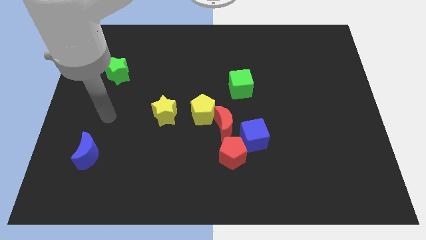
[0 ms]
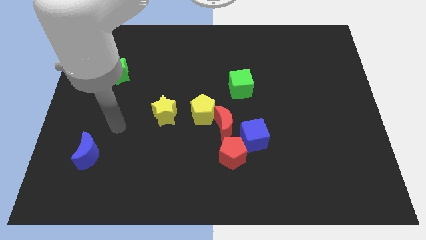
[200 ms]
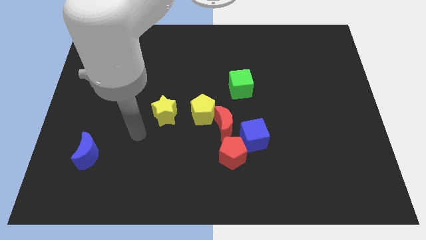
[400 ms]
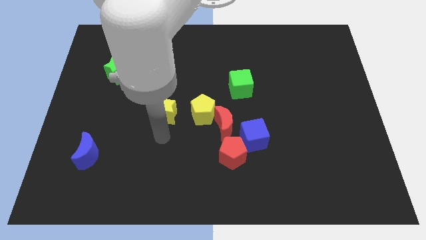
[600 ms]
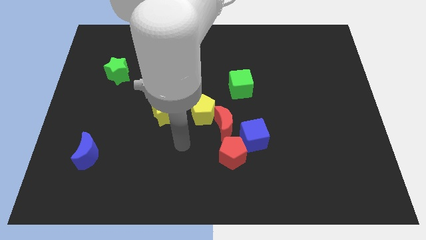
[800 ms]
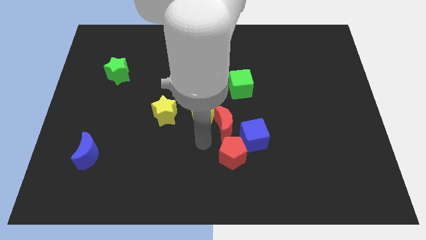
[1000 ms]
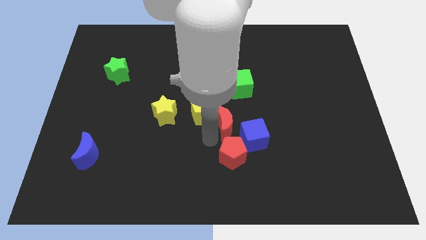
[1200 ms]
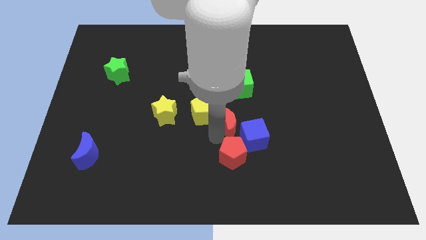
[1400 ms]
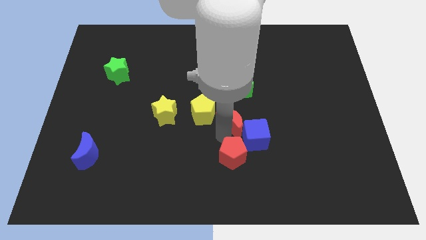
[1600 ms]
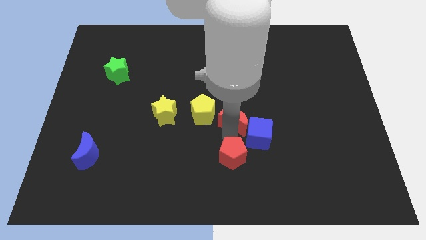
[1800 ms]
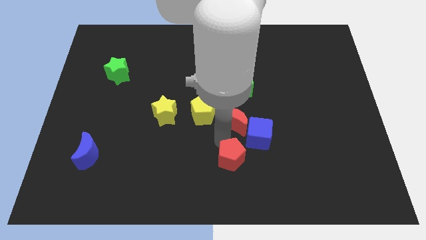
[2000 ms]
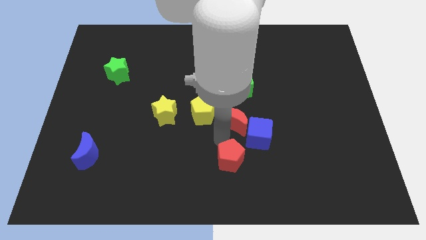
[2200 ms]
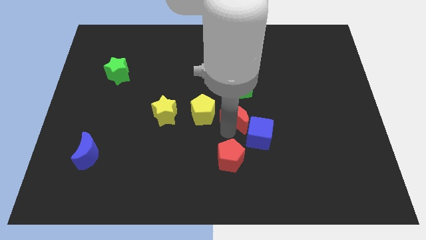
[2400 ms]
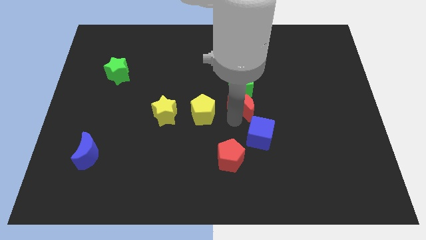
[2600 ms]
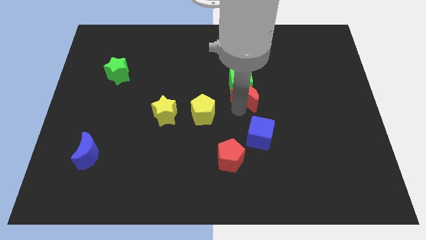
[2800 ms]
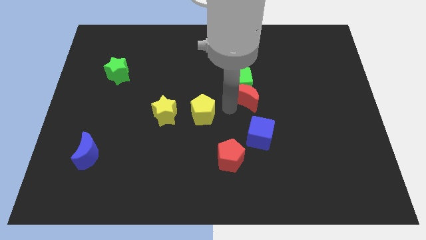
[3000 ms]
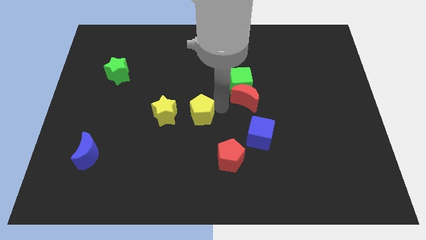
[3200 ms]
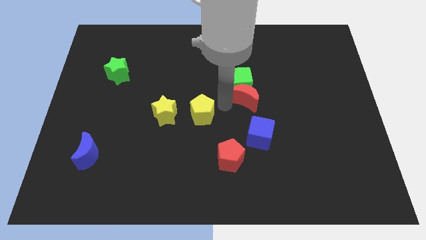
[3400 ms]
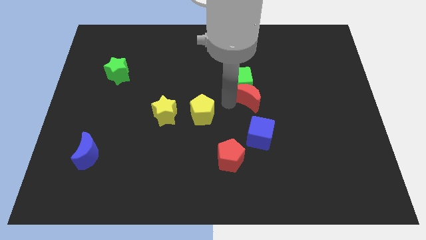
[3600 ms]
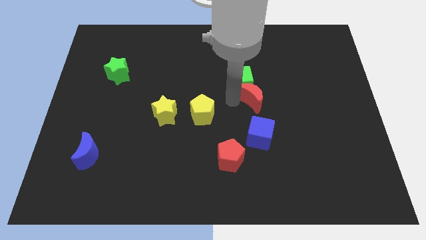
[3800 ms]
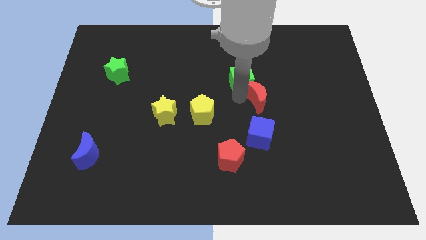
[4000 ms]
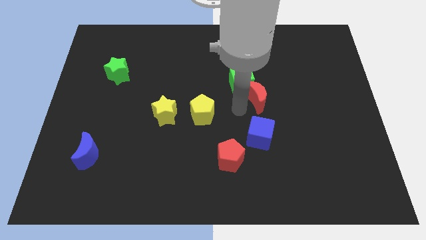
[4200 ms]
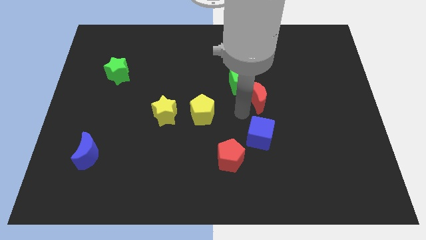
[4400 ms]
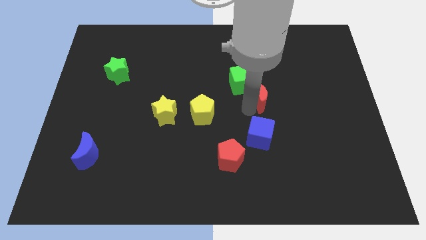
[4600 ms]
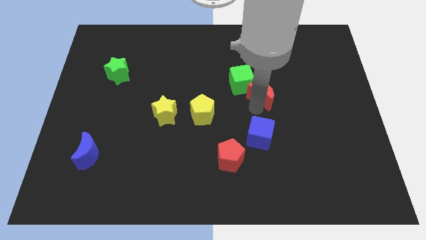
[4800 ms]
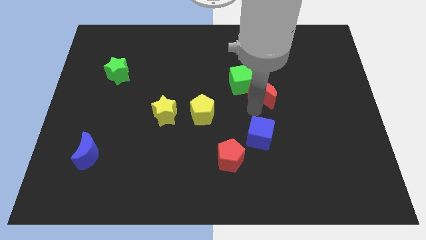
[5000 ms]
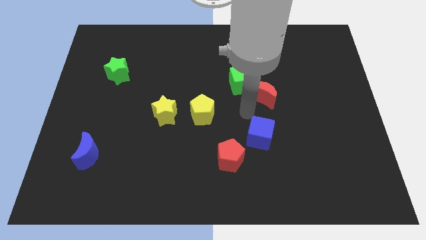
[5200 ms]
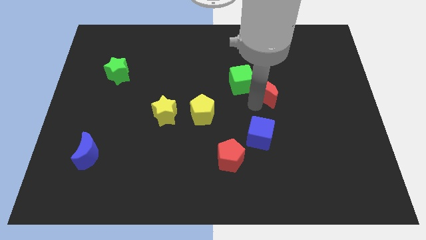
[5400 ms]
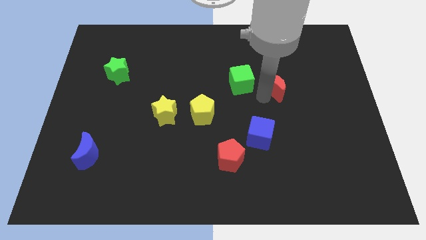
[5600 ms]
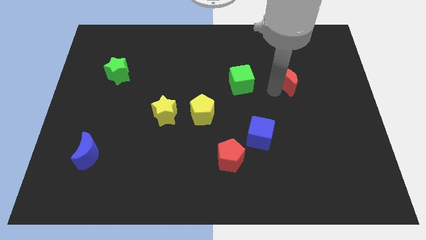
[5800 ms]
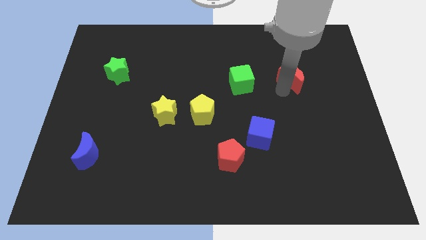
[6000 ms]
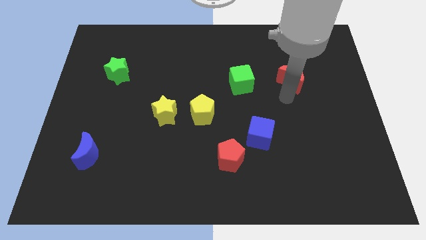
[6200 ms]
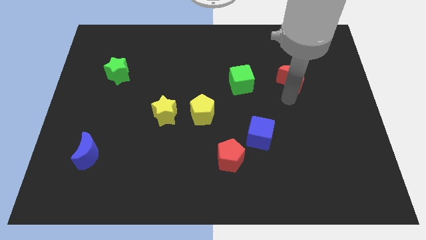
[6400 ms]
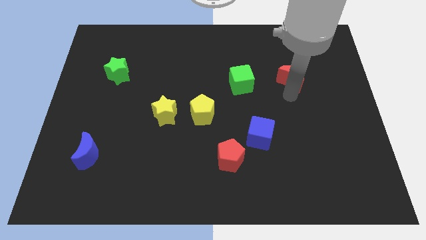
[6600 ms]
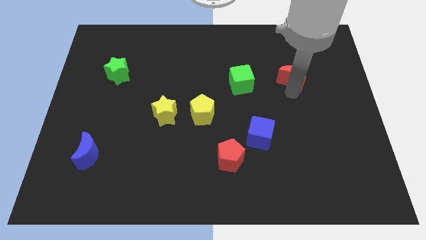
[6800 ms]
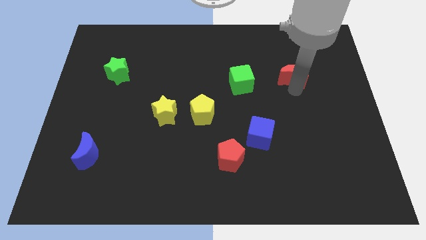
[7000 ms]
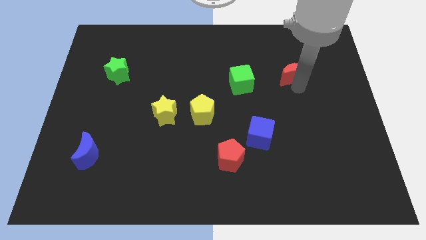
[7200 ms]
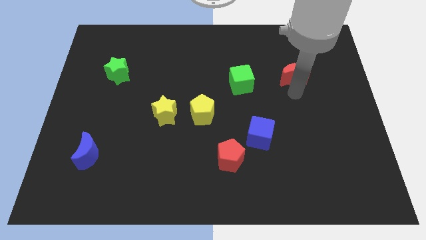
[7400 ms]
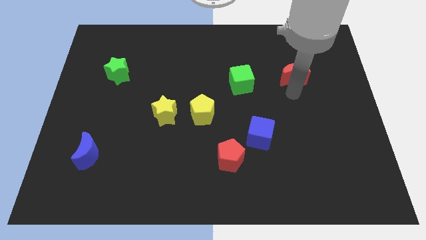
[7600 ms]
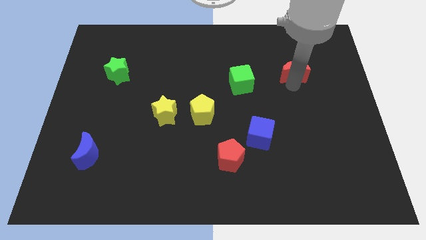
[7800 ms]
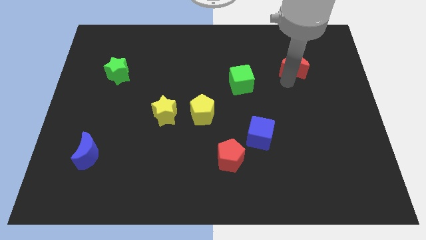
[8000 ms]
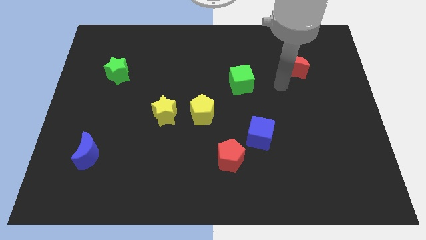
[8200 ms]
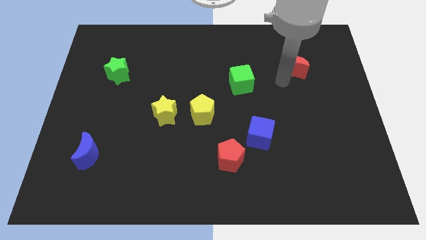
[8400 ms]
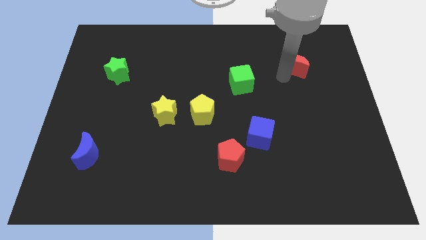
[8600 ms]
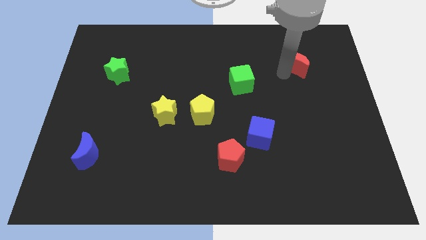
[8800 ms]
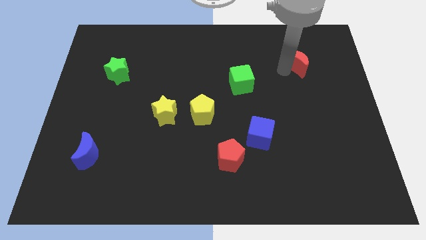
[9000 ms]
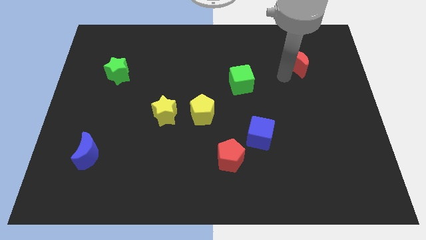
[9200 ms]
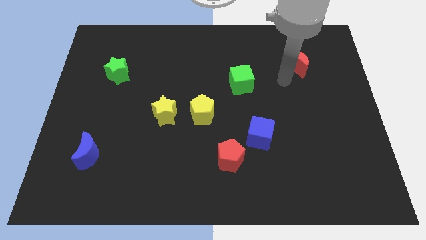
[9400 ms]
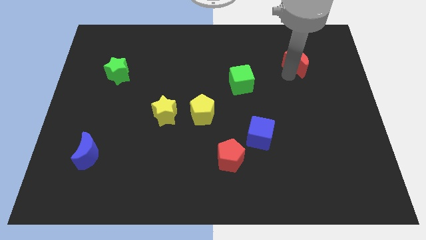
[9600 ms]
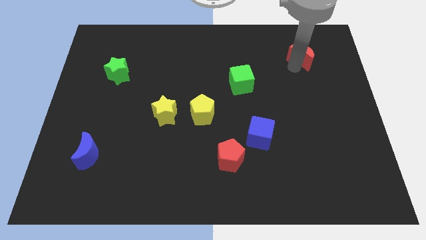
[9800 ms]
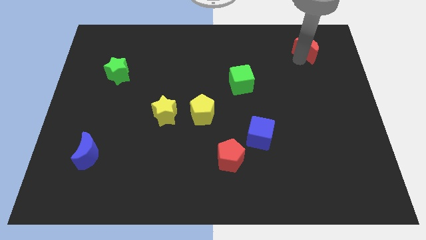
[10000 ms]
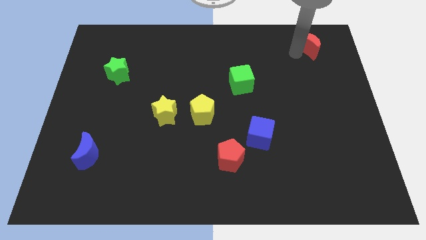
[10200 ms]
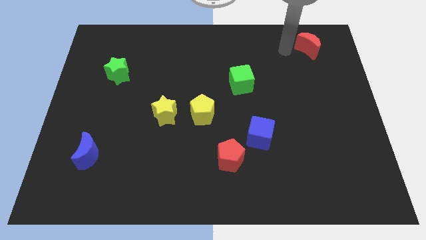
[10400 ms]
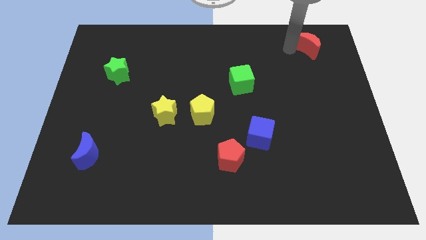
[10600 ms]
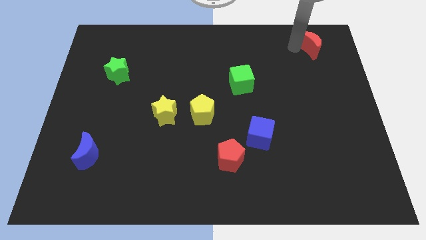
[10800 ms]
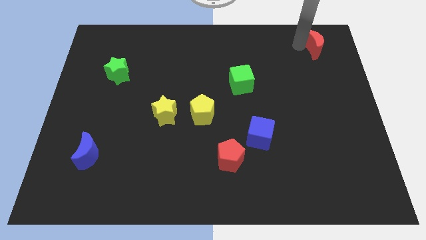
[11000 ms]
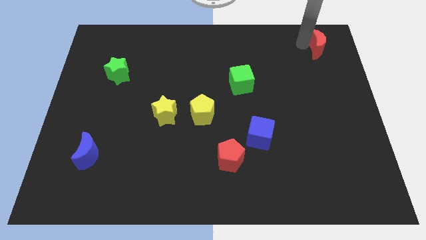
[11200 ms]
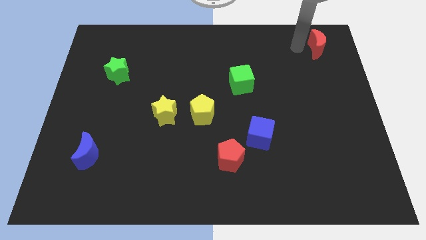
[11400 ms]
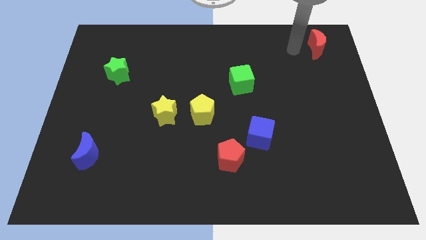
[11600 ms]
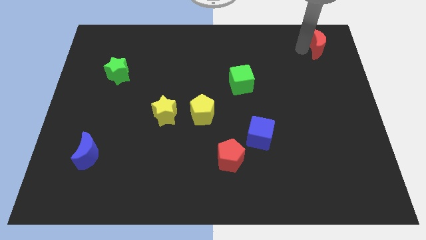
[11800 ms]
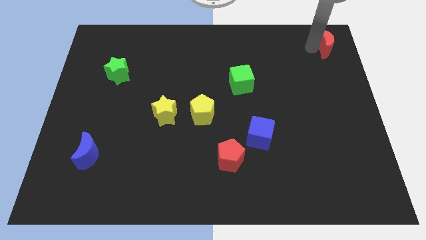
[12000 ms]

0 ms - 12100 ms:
slide the red moon to the top right corner
